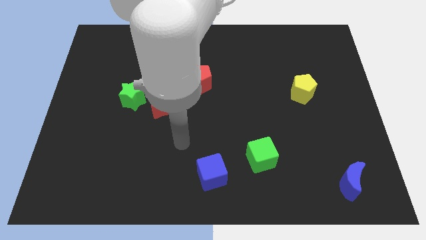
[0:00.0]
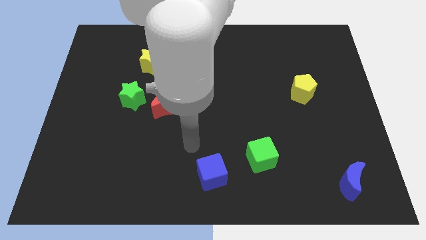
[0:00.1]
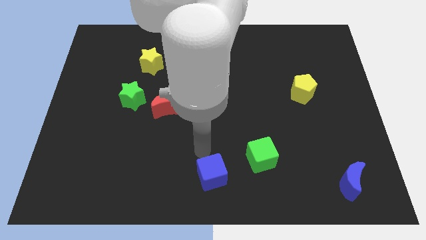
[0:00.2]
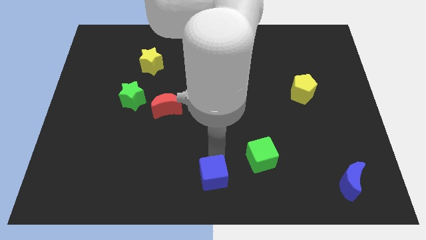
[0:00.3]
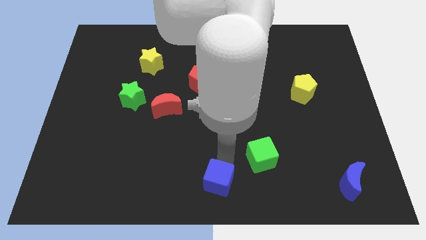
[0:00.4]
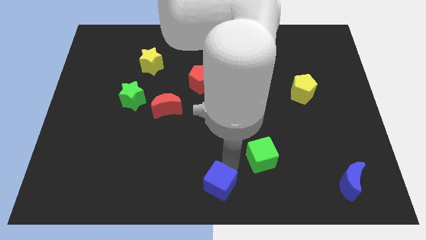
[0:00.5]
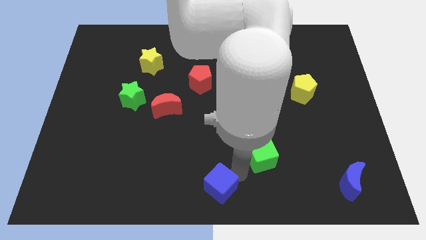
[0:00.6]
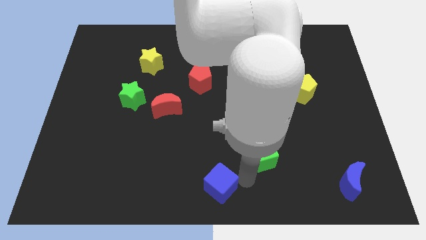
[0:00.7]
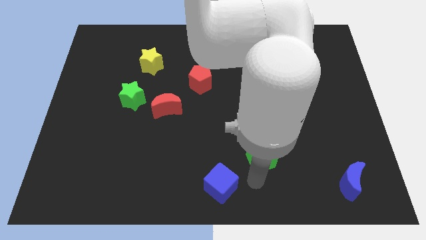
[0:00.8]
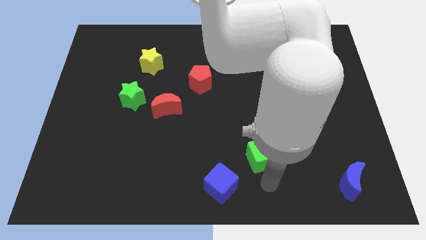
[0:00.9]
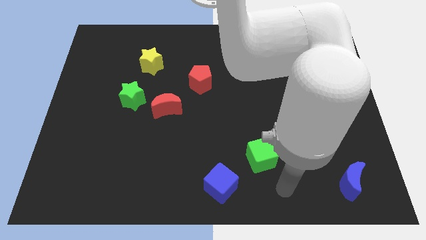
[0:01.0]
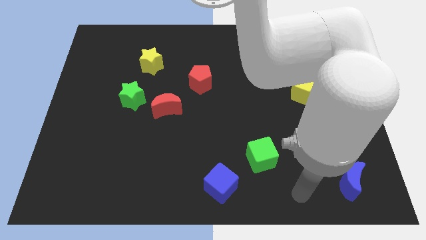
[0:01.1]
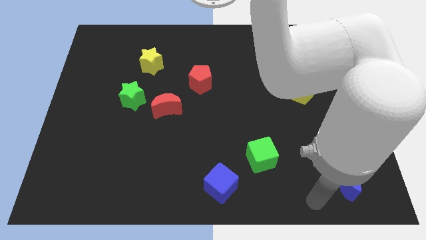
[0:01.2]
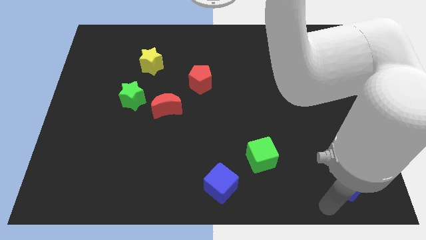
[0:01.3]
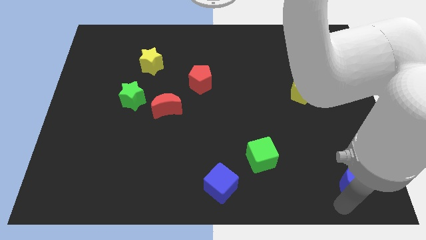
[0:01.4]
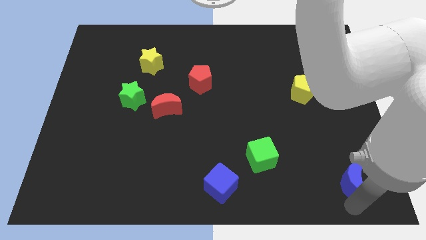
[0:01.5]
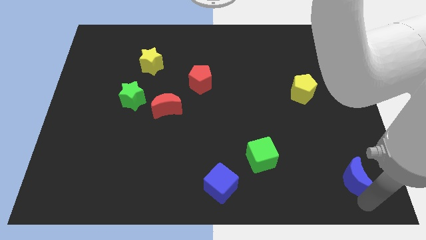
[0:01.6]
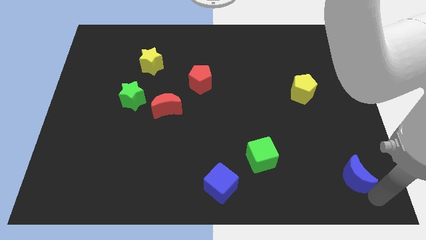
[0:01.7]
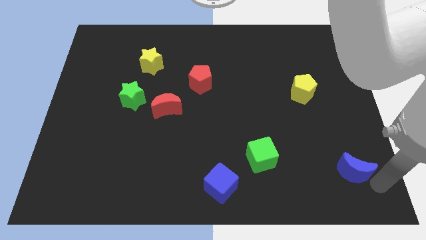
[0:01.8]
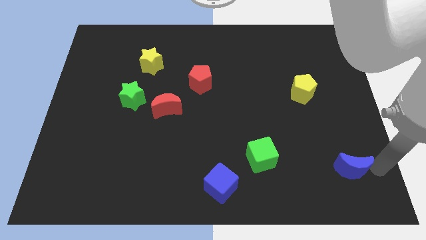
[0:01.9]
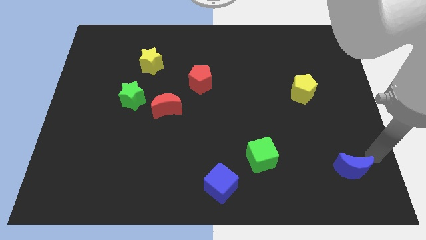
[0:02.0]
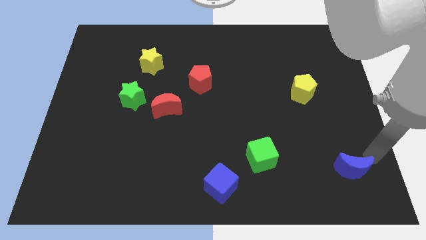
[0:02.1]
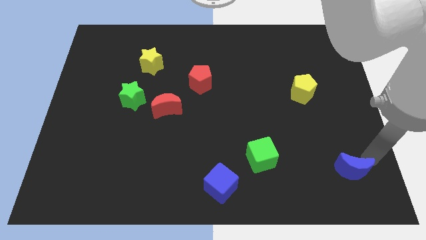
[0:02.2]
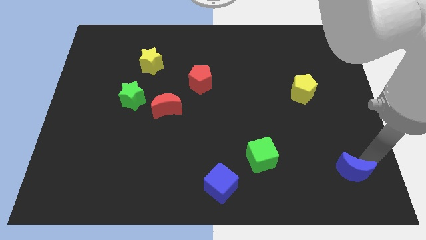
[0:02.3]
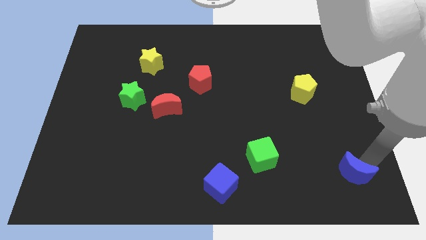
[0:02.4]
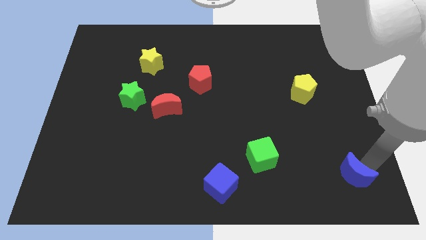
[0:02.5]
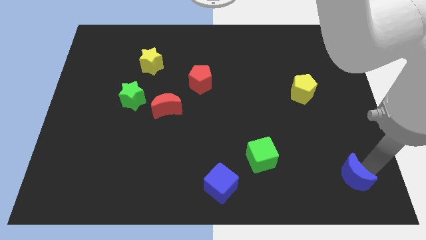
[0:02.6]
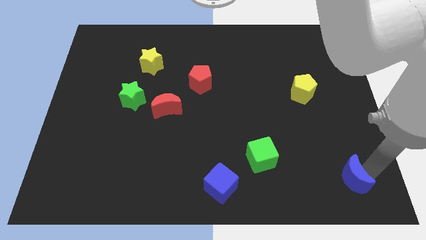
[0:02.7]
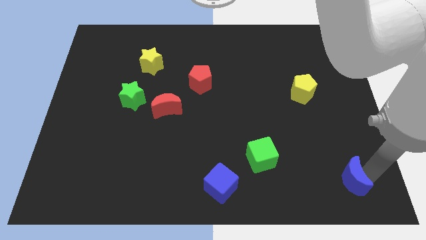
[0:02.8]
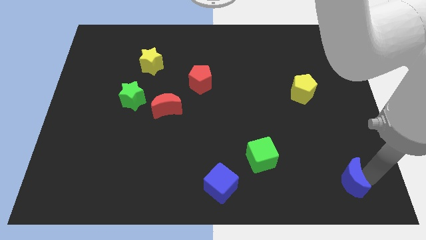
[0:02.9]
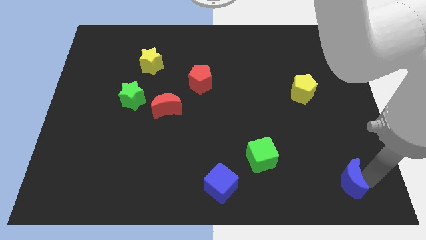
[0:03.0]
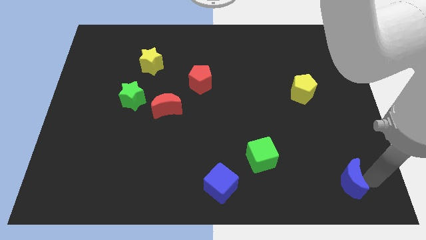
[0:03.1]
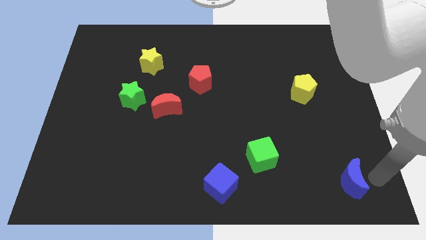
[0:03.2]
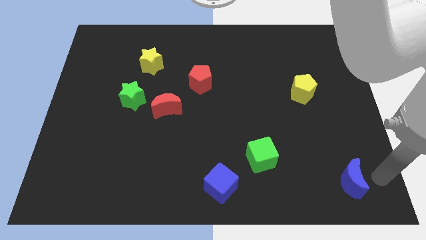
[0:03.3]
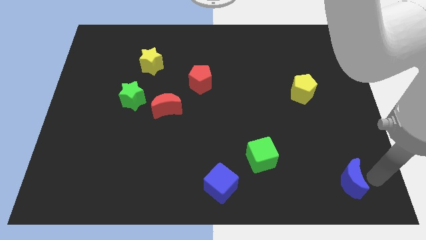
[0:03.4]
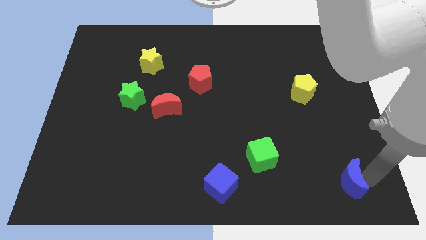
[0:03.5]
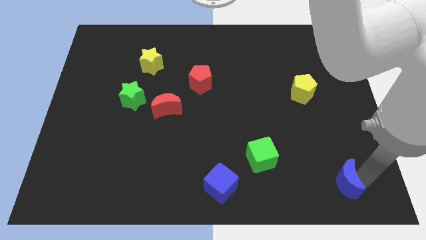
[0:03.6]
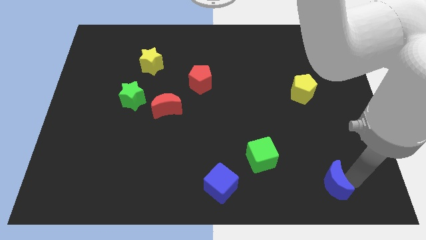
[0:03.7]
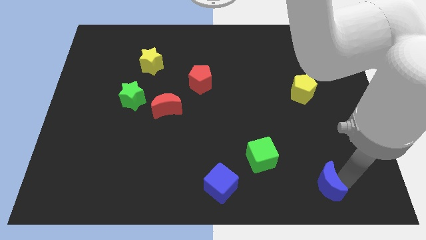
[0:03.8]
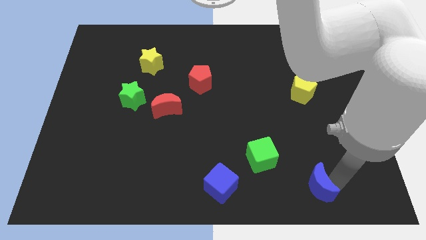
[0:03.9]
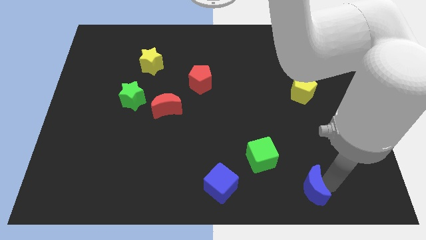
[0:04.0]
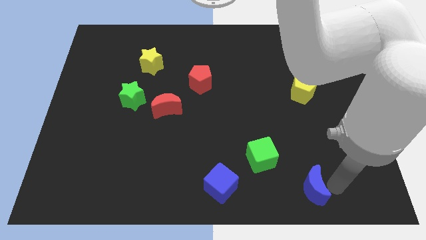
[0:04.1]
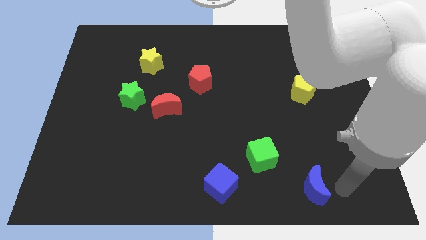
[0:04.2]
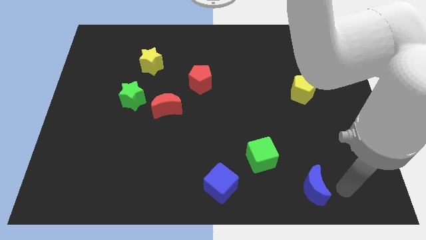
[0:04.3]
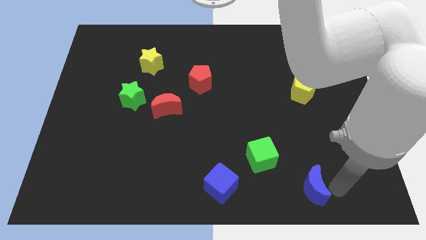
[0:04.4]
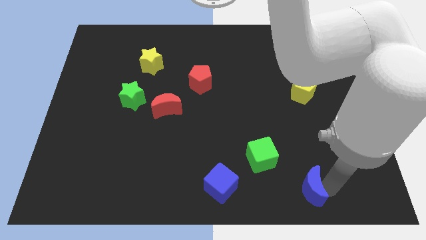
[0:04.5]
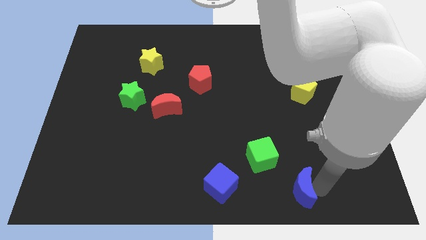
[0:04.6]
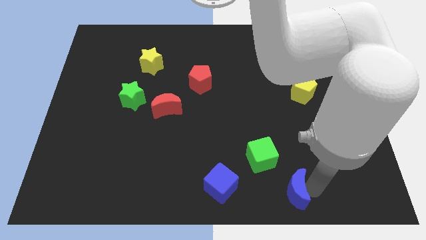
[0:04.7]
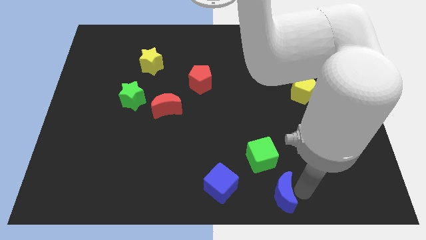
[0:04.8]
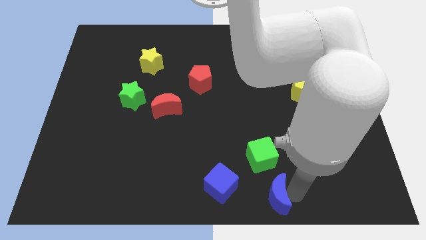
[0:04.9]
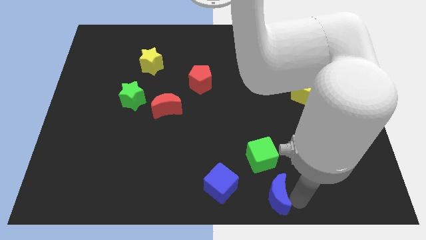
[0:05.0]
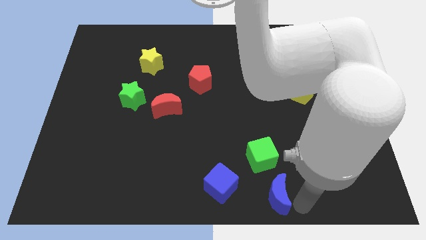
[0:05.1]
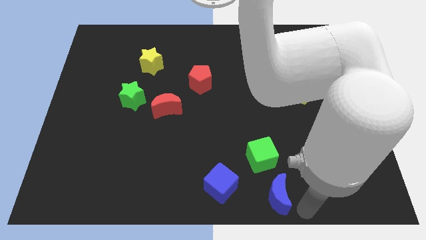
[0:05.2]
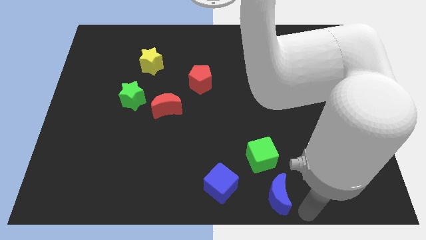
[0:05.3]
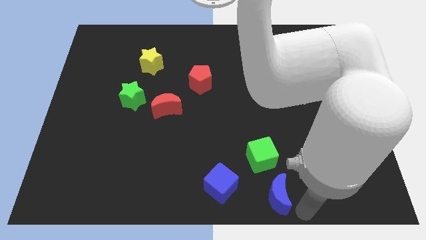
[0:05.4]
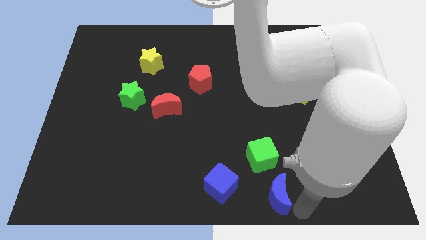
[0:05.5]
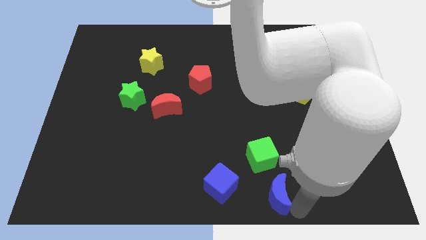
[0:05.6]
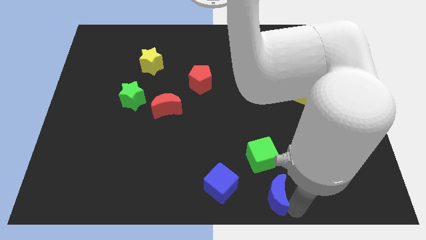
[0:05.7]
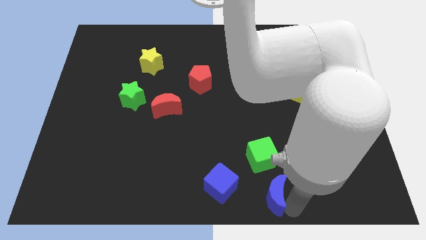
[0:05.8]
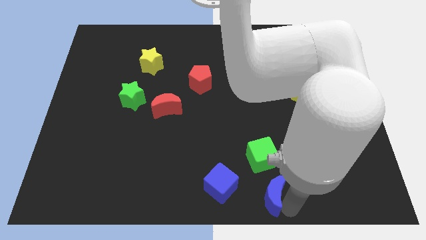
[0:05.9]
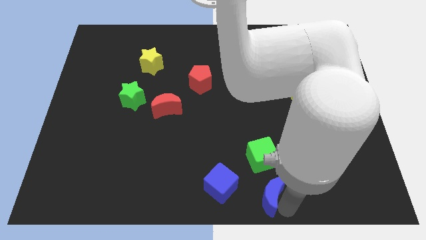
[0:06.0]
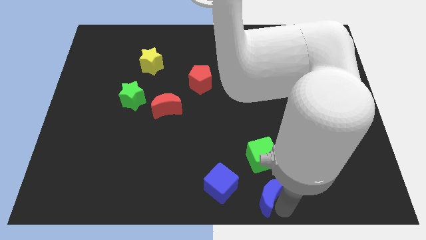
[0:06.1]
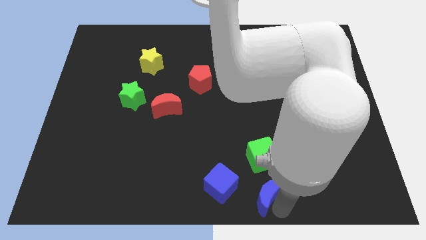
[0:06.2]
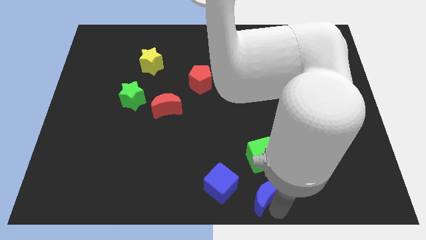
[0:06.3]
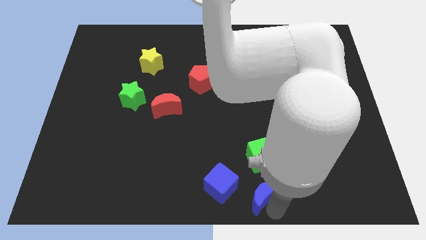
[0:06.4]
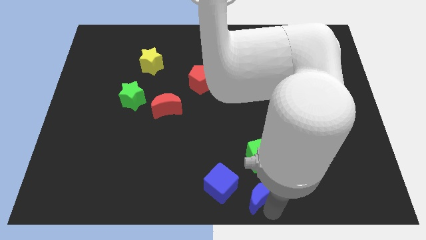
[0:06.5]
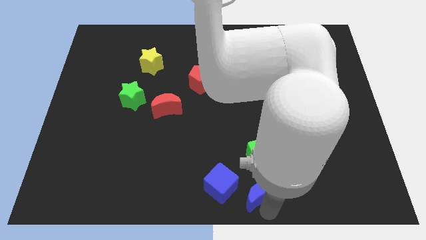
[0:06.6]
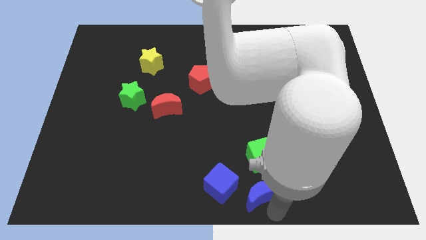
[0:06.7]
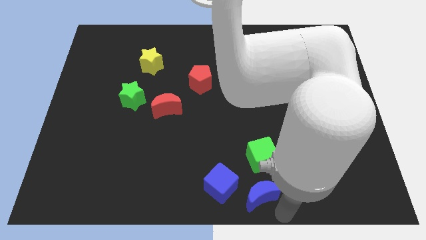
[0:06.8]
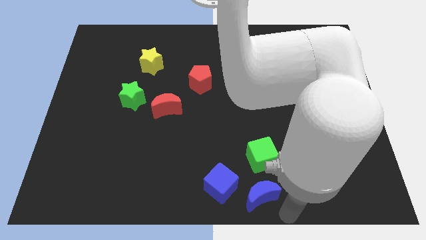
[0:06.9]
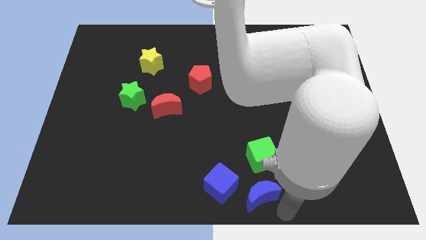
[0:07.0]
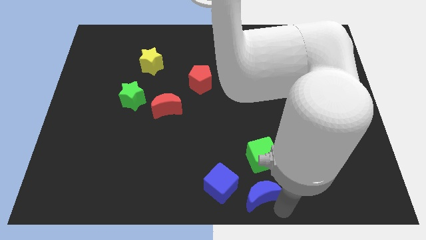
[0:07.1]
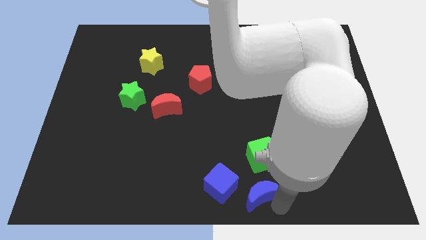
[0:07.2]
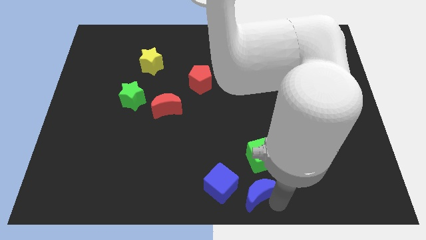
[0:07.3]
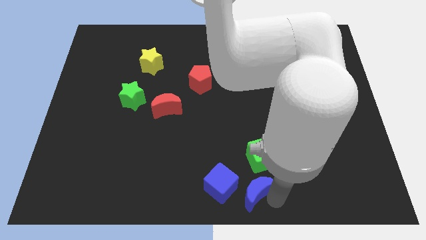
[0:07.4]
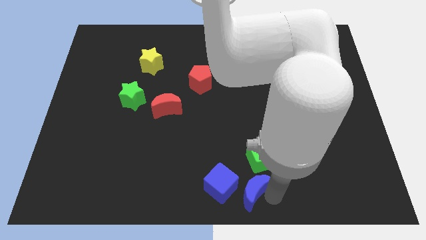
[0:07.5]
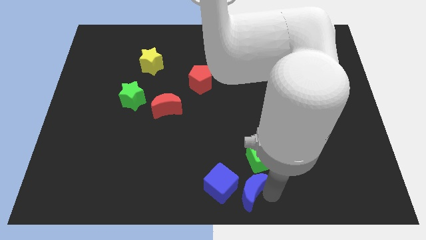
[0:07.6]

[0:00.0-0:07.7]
put the blue moon close to the blue cube
